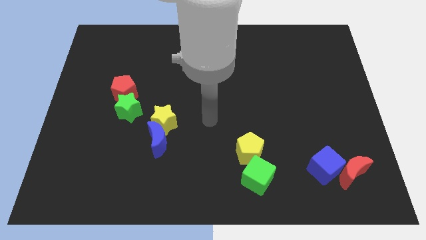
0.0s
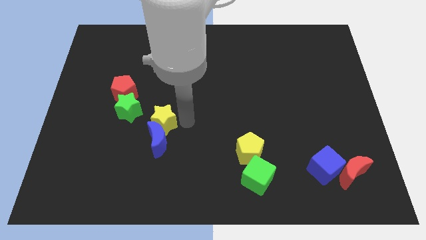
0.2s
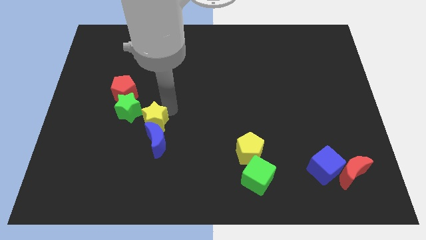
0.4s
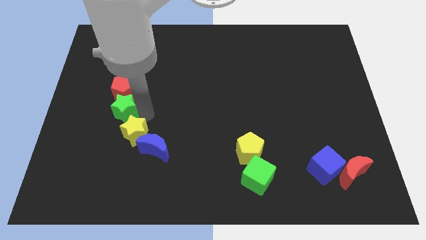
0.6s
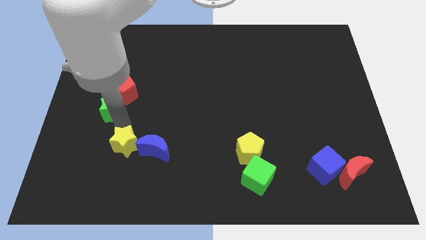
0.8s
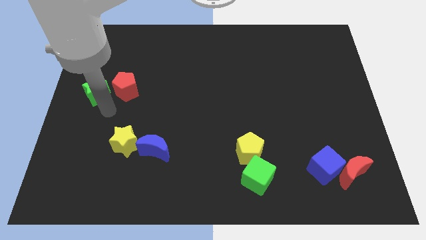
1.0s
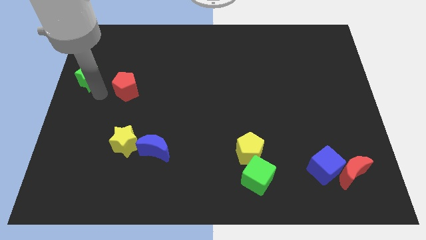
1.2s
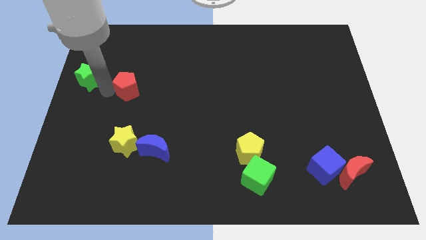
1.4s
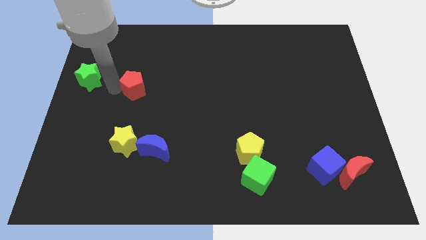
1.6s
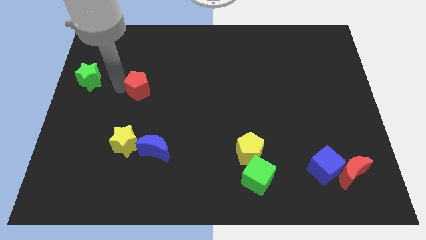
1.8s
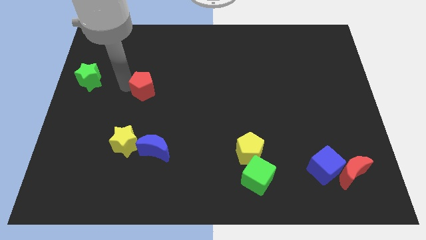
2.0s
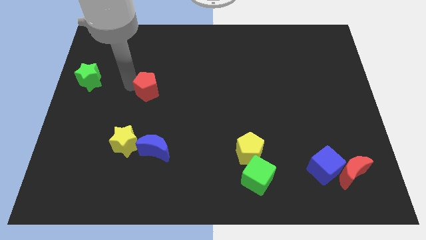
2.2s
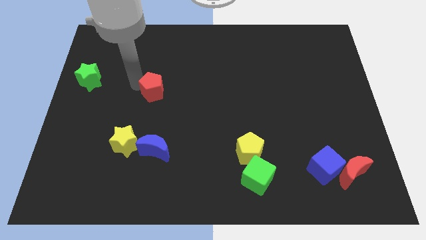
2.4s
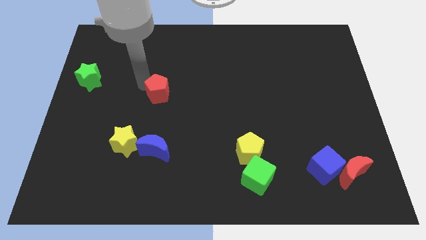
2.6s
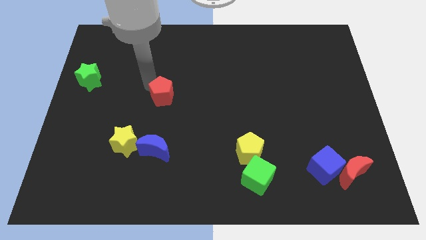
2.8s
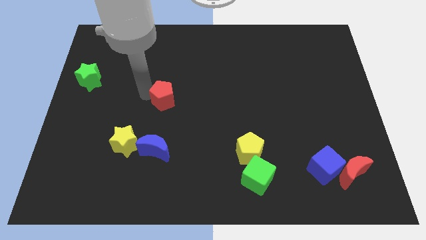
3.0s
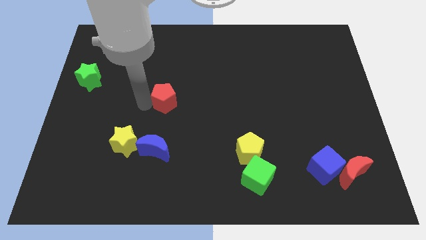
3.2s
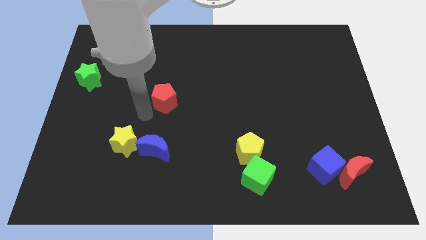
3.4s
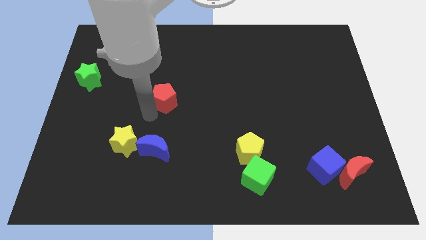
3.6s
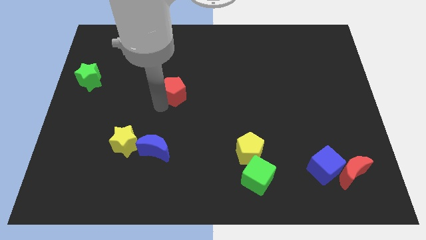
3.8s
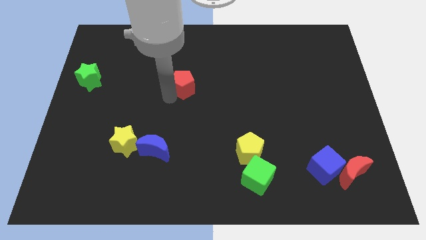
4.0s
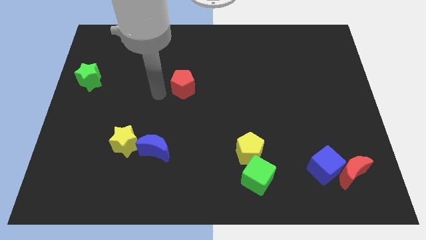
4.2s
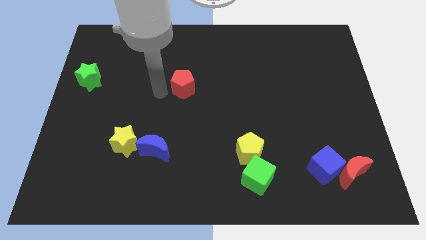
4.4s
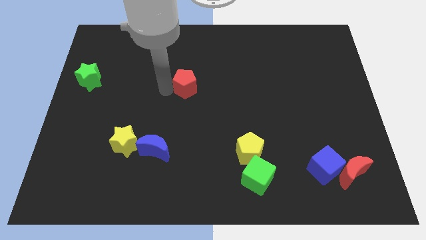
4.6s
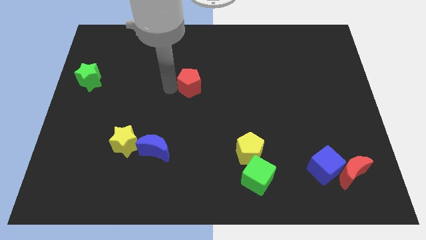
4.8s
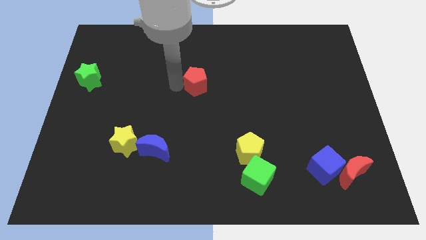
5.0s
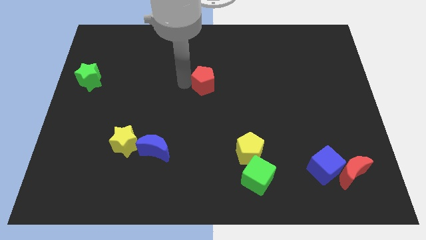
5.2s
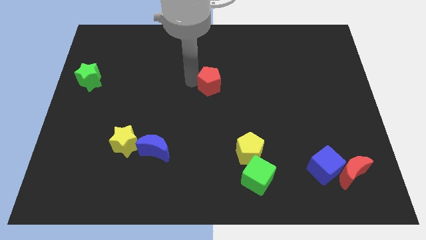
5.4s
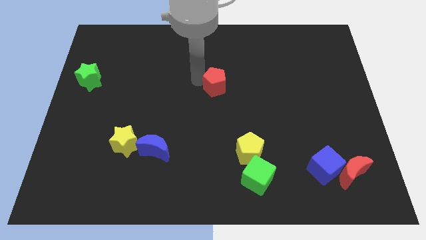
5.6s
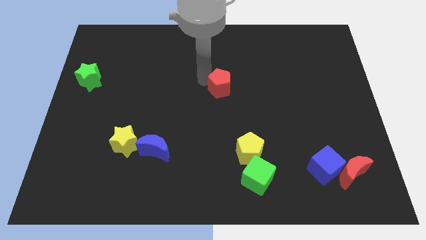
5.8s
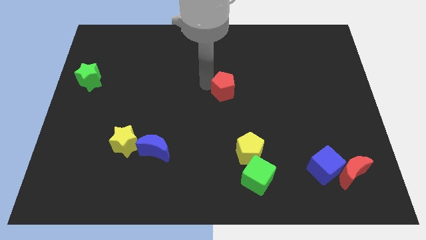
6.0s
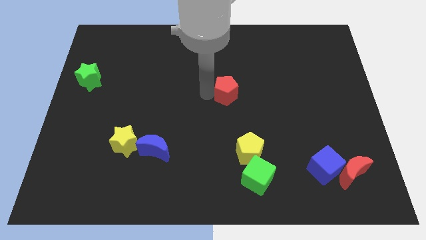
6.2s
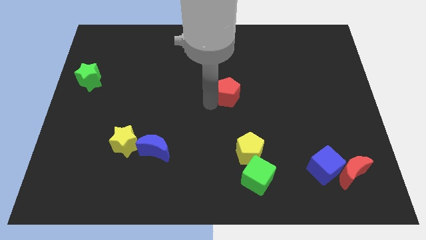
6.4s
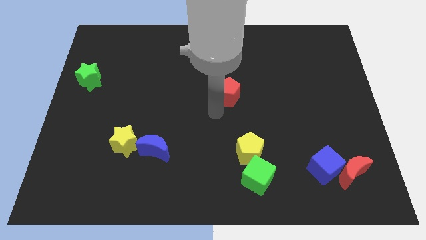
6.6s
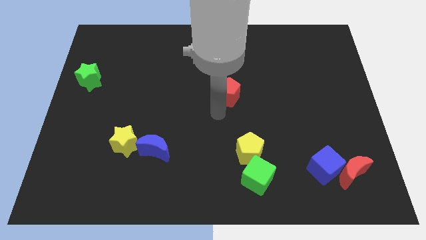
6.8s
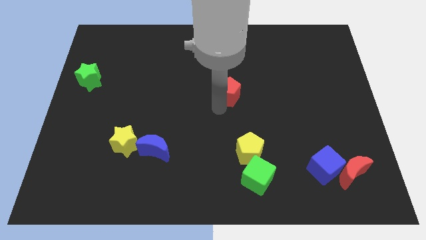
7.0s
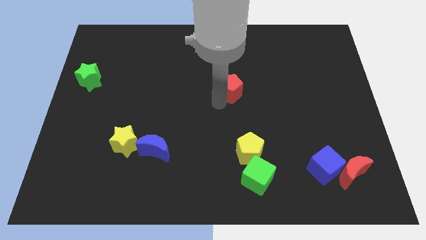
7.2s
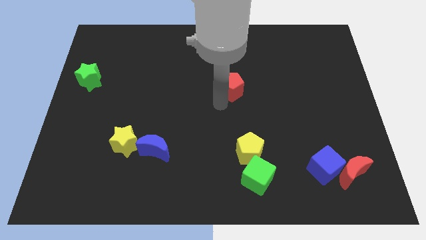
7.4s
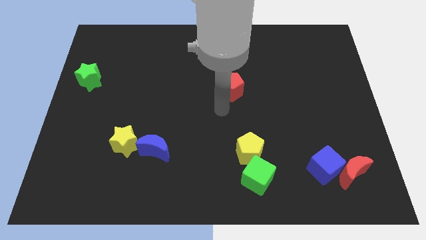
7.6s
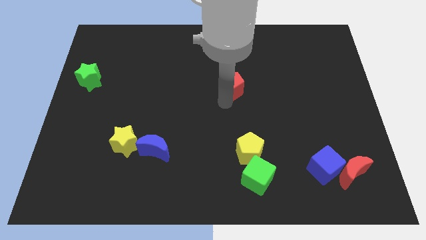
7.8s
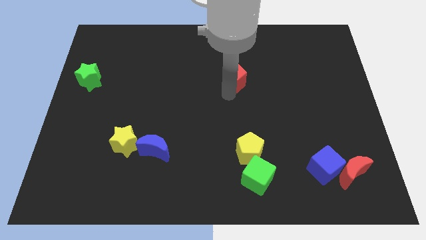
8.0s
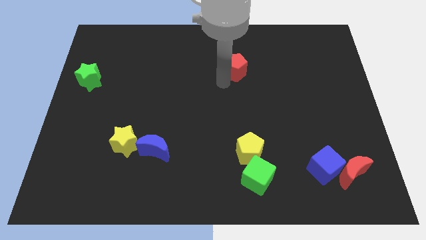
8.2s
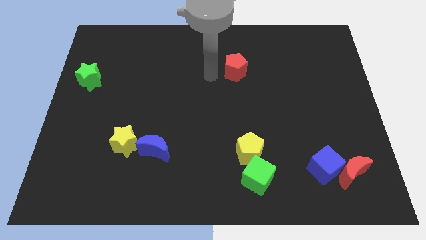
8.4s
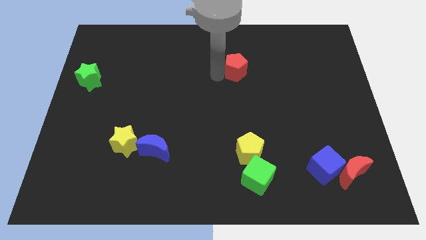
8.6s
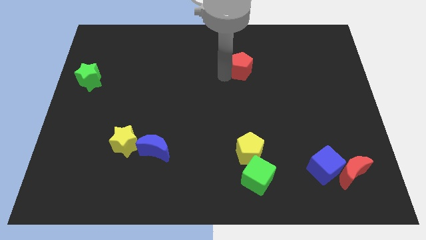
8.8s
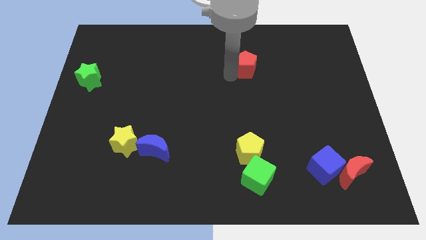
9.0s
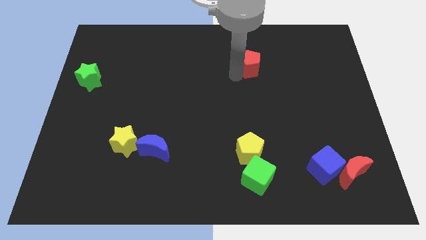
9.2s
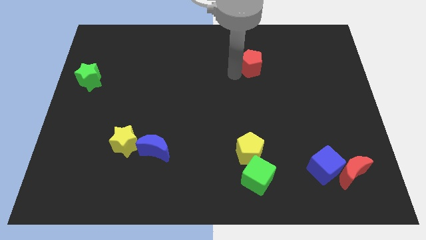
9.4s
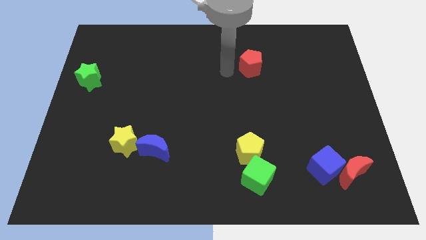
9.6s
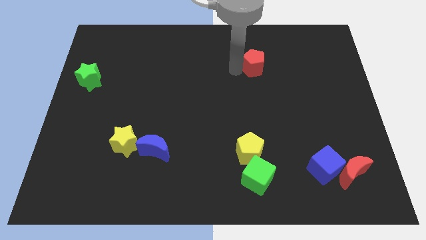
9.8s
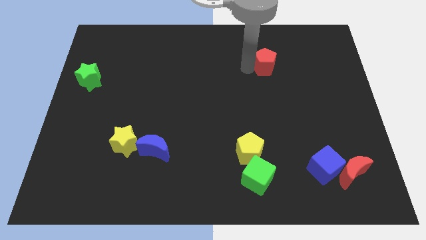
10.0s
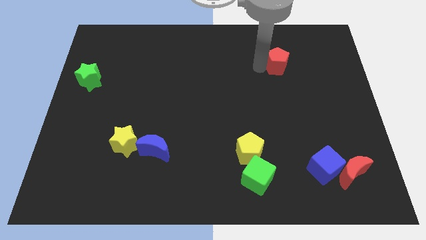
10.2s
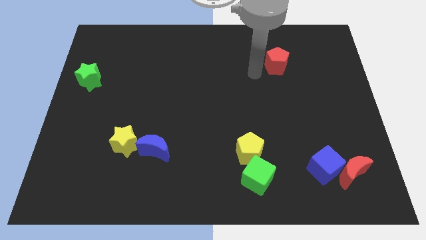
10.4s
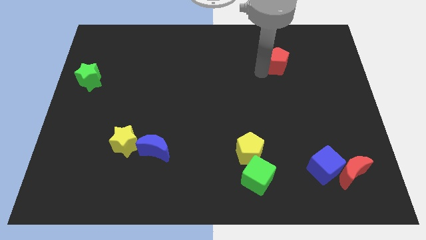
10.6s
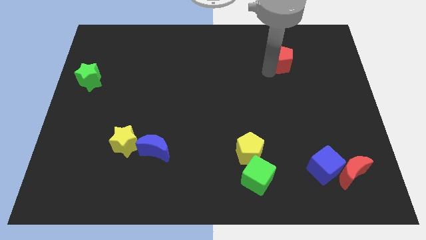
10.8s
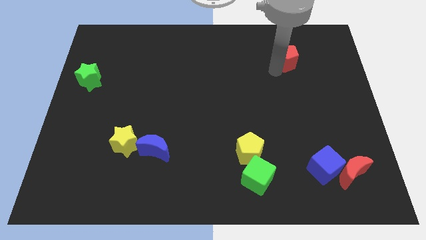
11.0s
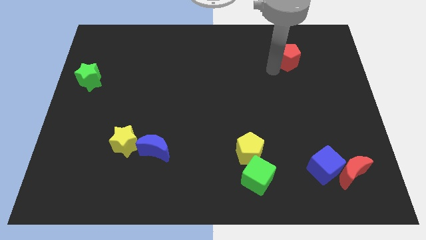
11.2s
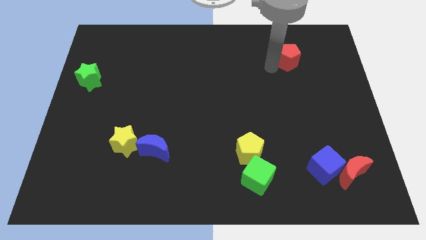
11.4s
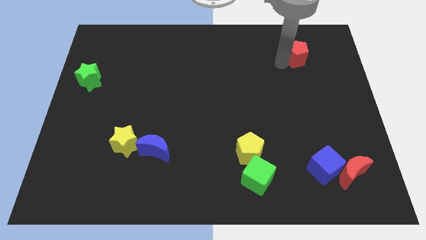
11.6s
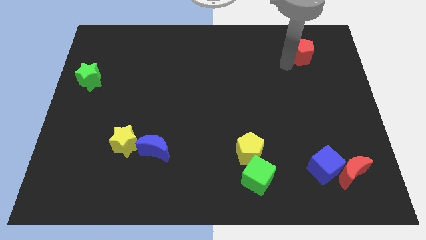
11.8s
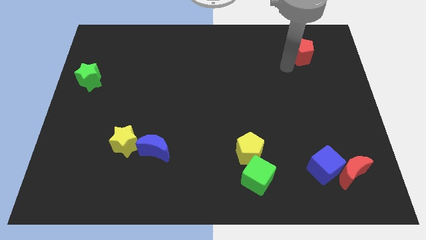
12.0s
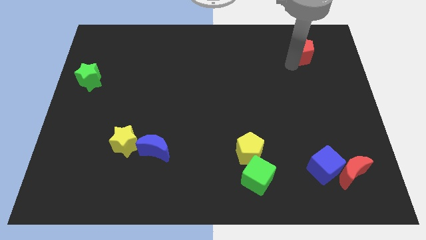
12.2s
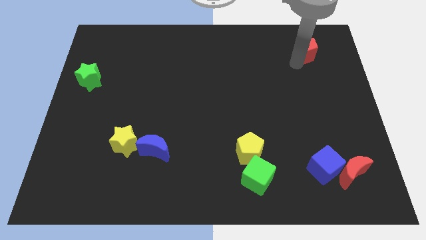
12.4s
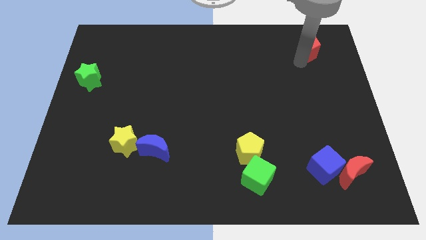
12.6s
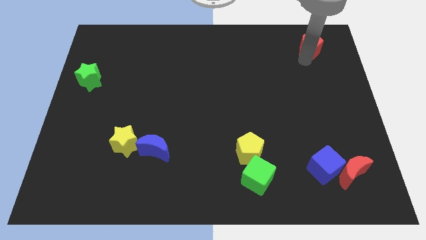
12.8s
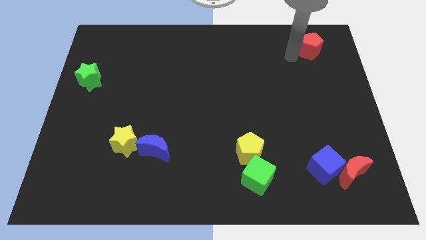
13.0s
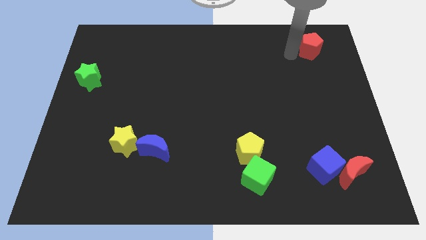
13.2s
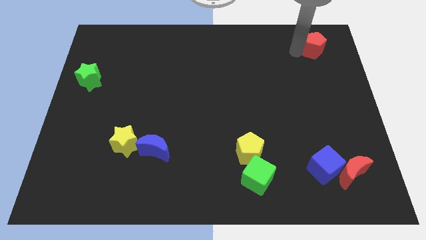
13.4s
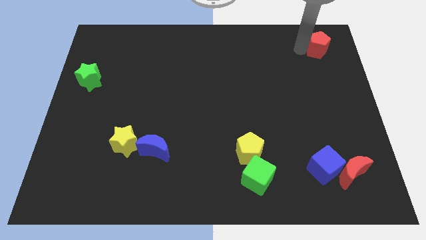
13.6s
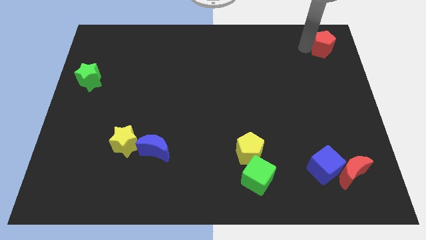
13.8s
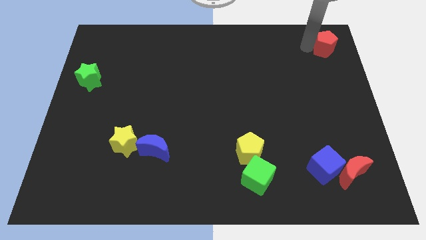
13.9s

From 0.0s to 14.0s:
push the red pentagon to the top right corner
